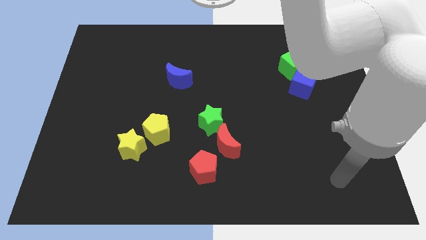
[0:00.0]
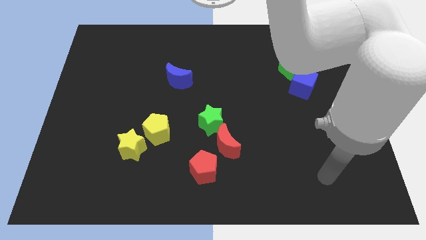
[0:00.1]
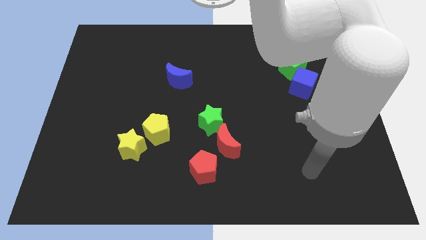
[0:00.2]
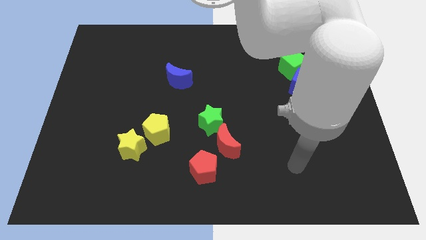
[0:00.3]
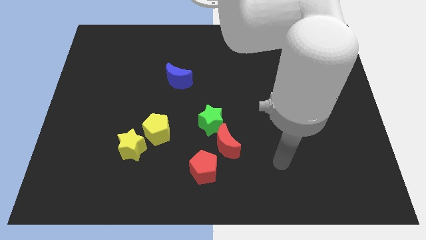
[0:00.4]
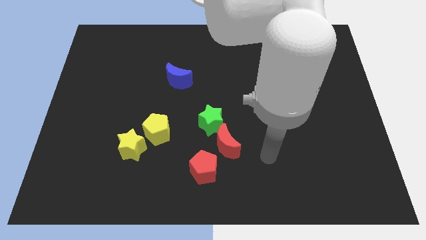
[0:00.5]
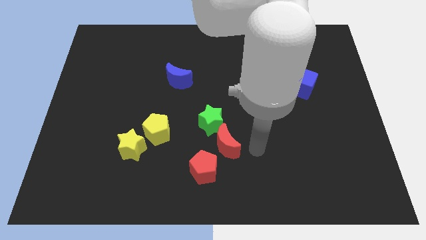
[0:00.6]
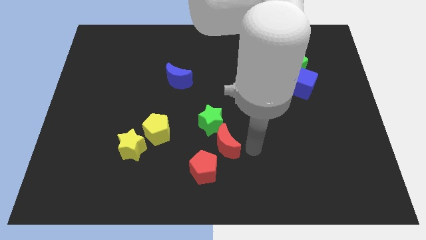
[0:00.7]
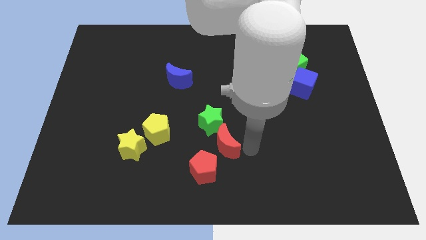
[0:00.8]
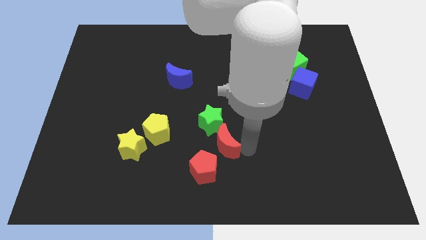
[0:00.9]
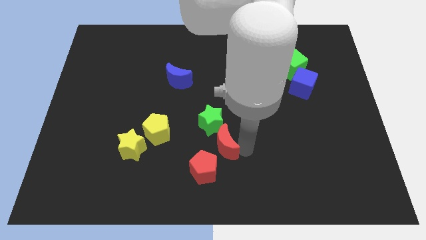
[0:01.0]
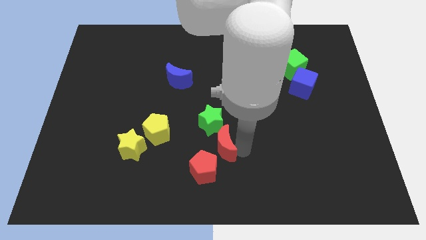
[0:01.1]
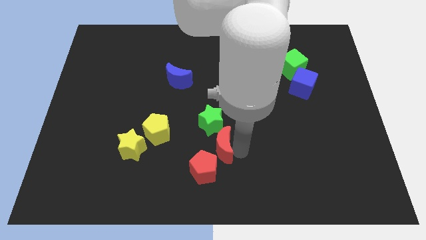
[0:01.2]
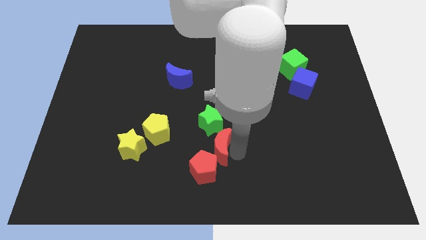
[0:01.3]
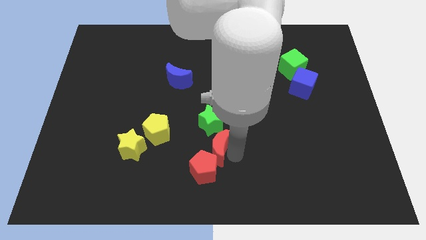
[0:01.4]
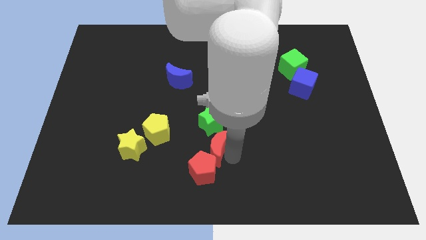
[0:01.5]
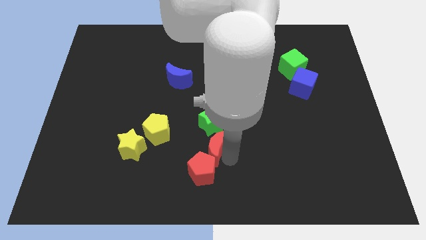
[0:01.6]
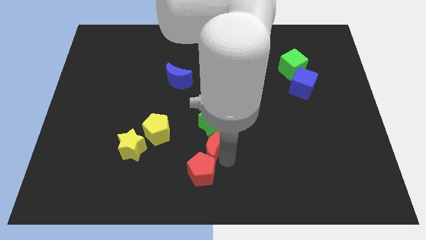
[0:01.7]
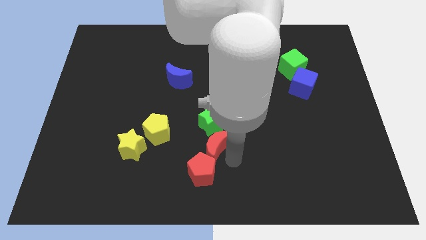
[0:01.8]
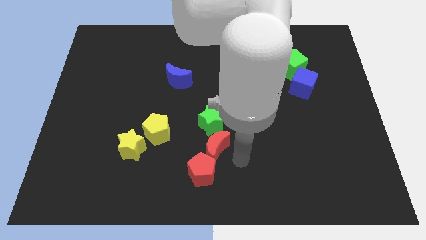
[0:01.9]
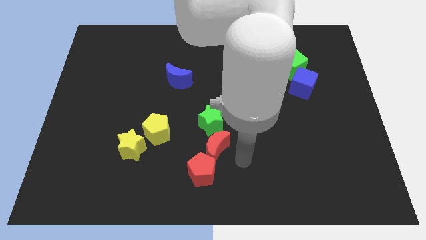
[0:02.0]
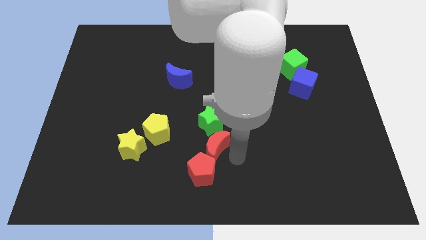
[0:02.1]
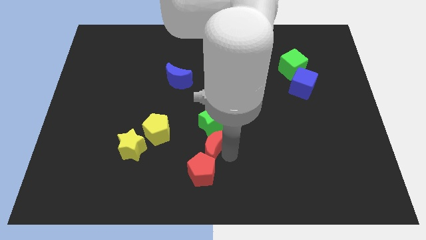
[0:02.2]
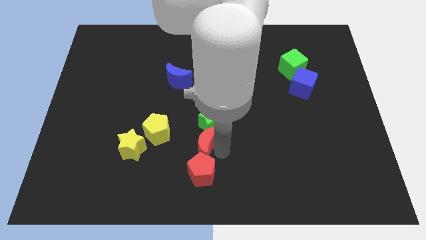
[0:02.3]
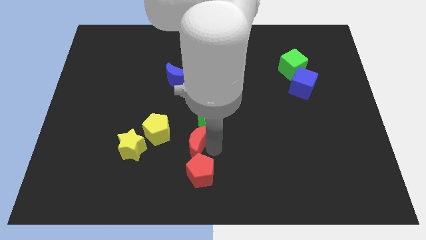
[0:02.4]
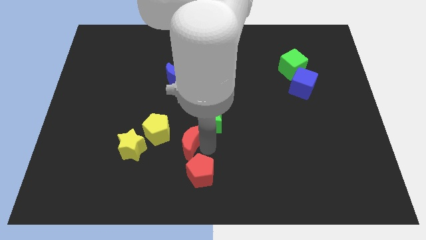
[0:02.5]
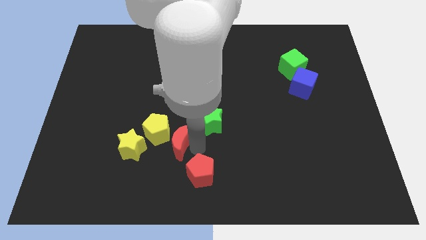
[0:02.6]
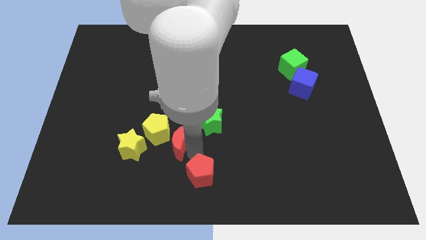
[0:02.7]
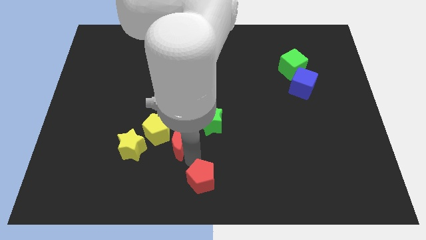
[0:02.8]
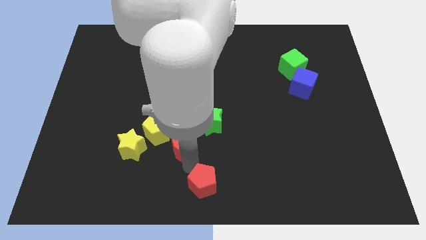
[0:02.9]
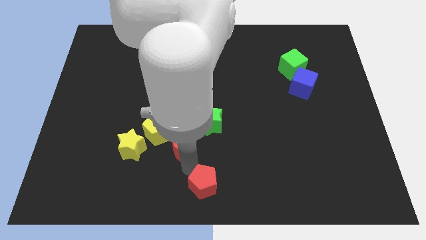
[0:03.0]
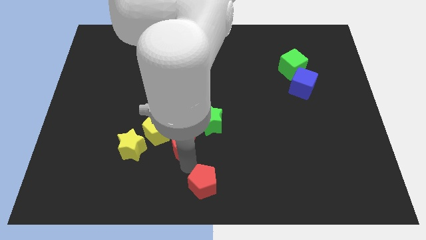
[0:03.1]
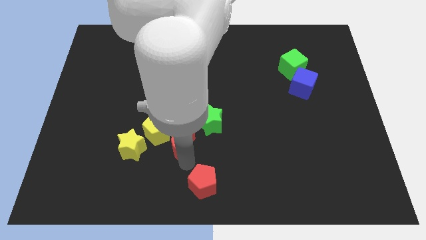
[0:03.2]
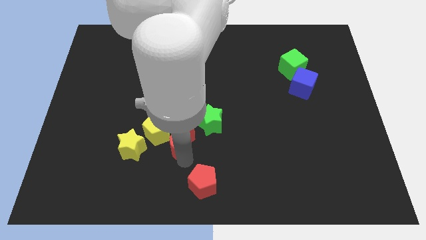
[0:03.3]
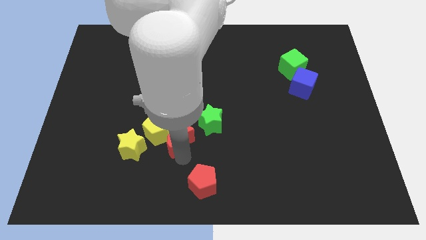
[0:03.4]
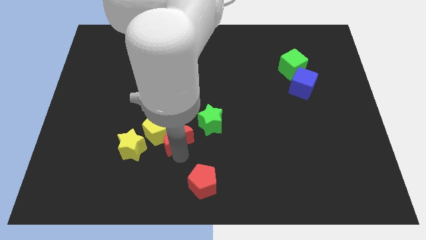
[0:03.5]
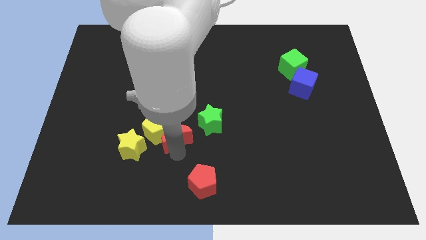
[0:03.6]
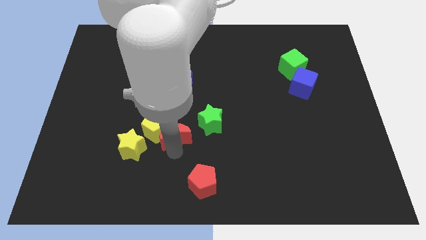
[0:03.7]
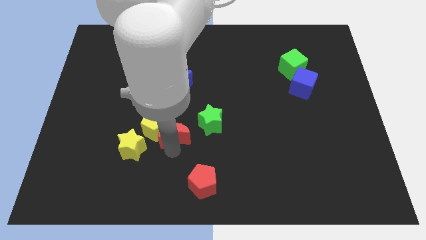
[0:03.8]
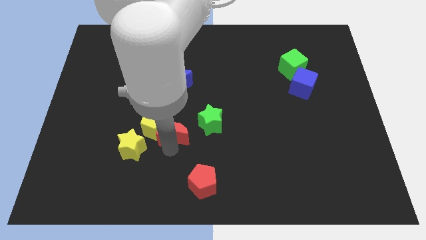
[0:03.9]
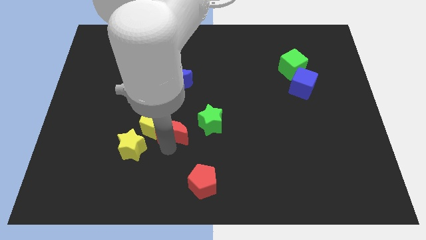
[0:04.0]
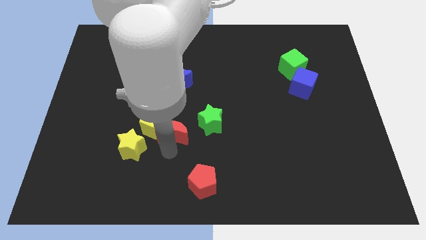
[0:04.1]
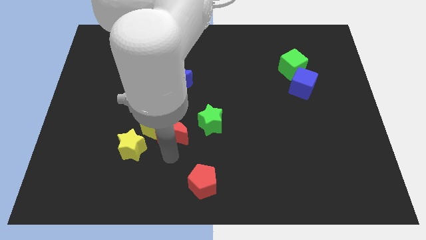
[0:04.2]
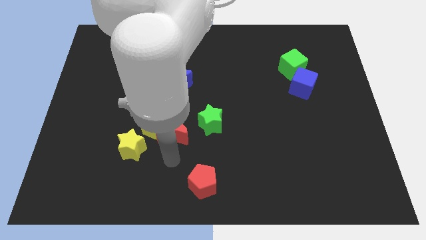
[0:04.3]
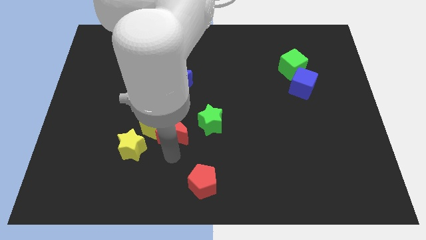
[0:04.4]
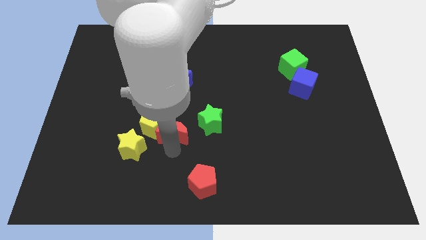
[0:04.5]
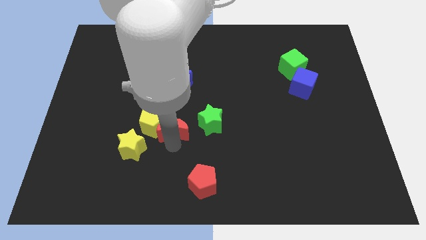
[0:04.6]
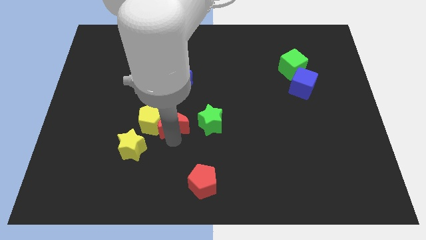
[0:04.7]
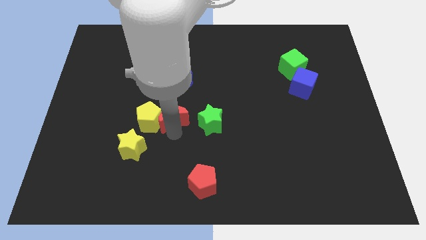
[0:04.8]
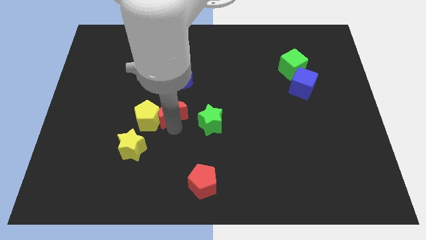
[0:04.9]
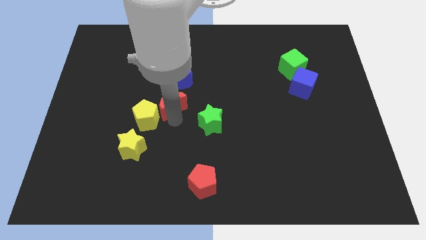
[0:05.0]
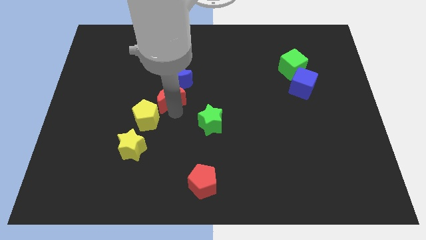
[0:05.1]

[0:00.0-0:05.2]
put the red moon to the top of the yellow pentagon

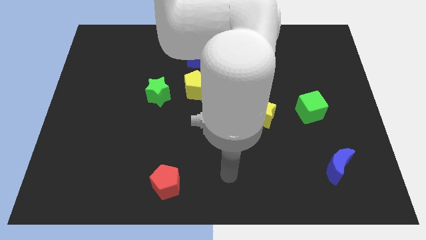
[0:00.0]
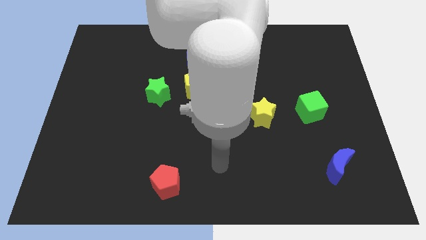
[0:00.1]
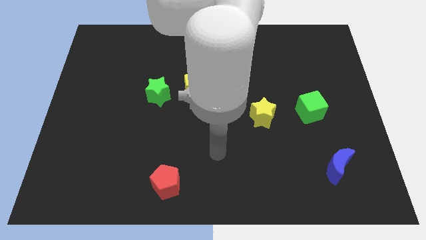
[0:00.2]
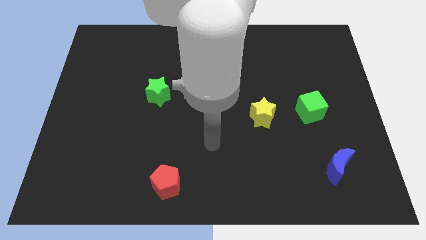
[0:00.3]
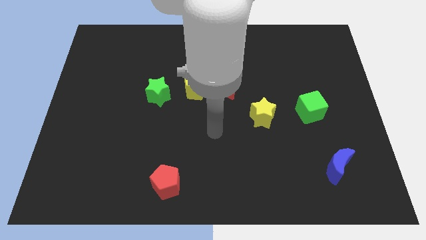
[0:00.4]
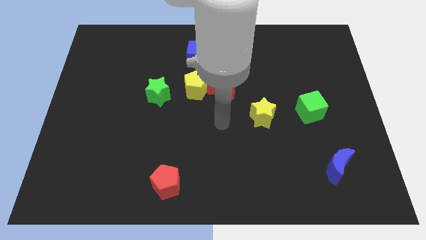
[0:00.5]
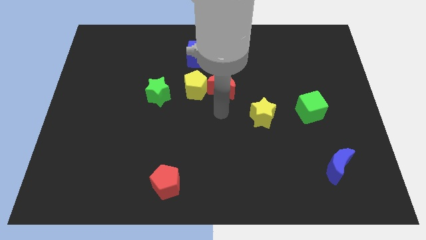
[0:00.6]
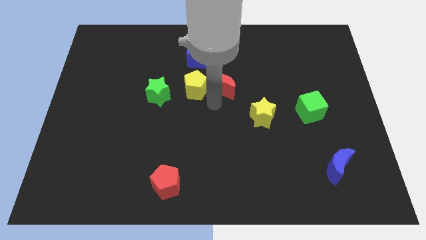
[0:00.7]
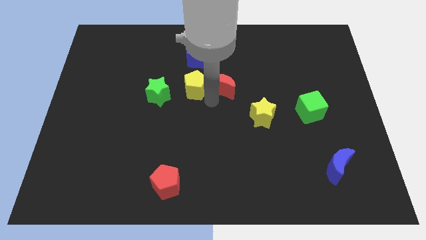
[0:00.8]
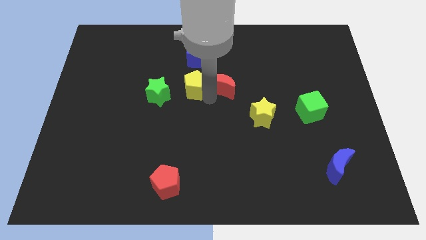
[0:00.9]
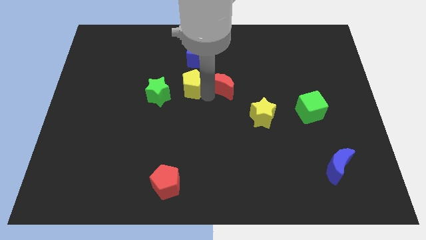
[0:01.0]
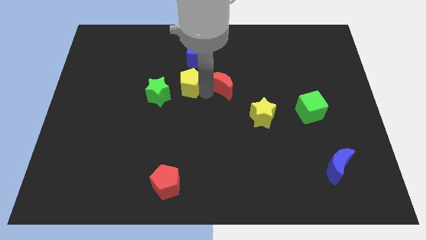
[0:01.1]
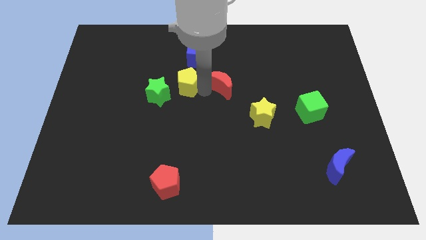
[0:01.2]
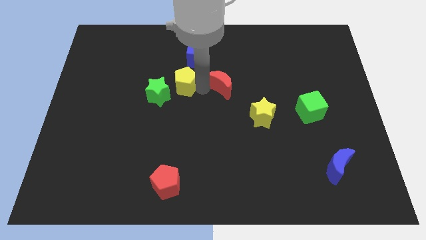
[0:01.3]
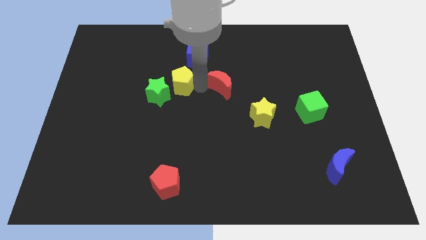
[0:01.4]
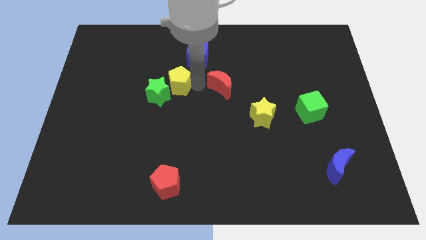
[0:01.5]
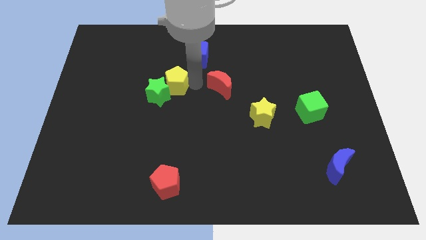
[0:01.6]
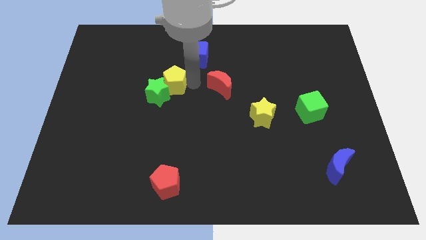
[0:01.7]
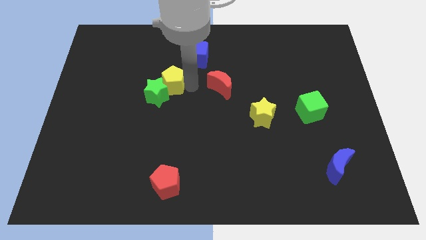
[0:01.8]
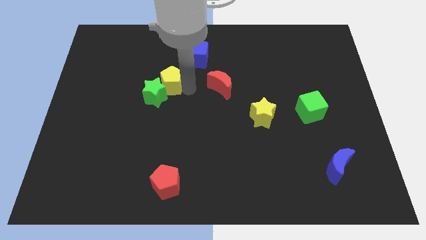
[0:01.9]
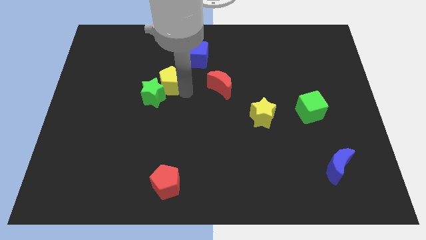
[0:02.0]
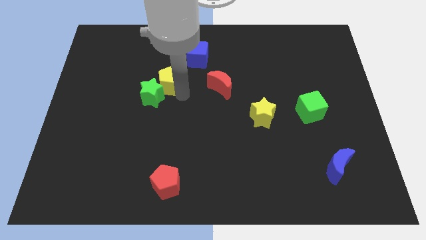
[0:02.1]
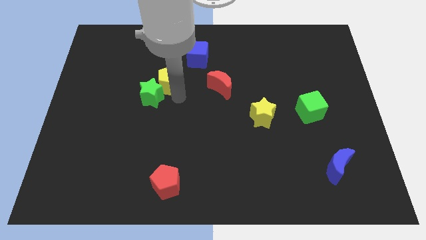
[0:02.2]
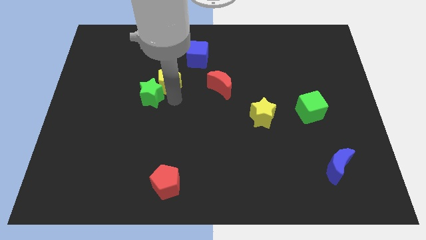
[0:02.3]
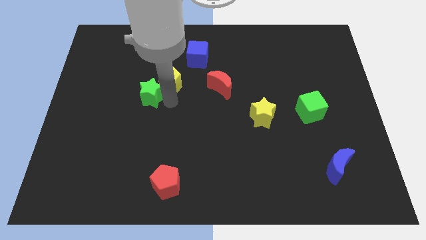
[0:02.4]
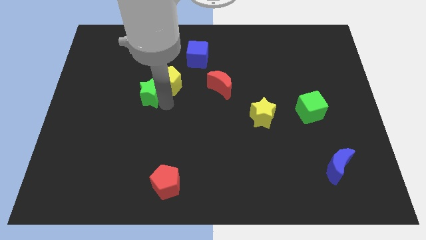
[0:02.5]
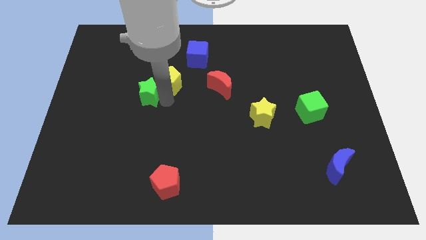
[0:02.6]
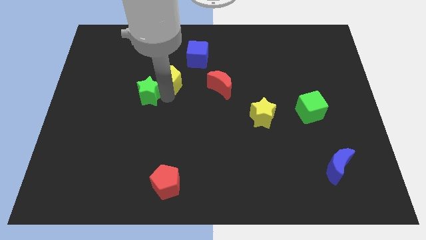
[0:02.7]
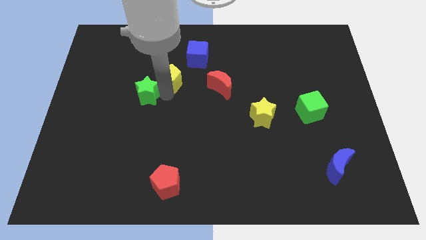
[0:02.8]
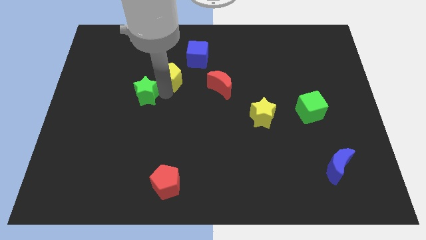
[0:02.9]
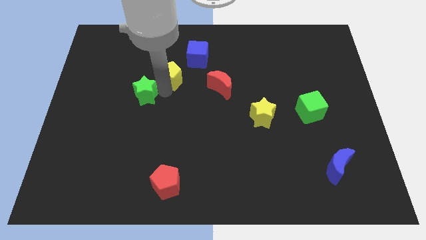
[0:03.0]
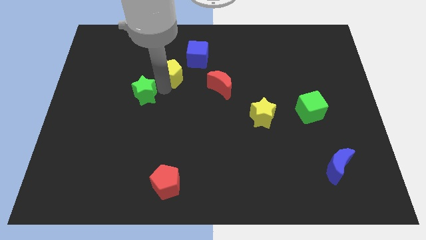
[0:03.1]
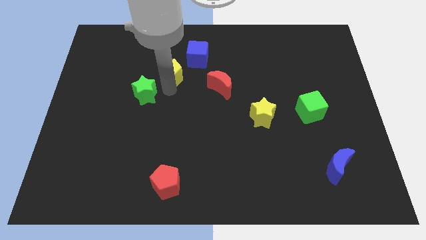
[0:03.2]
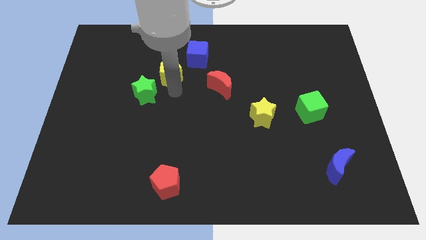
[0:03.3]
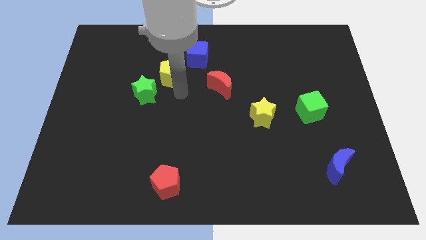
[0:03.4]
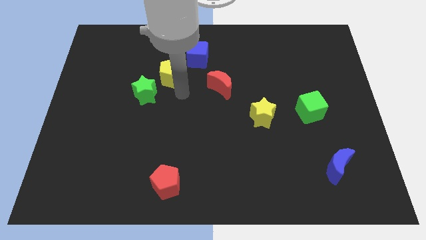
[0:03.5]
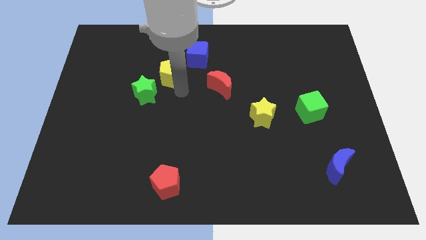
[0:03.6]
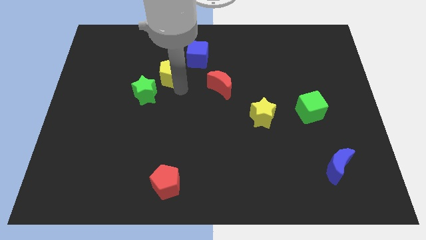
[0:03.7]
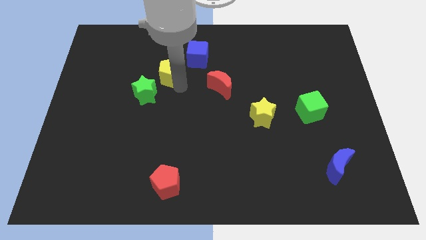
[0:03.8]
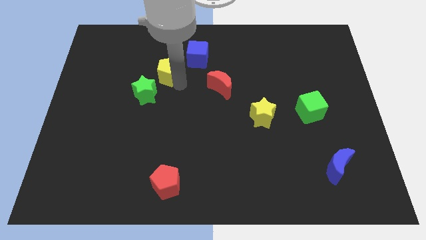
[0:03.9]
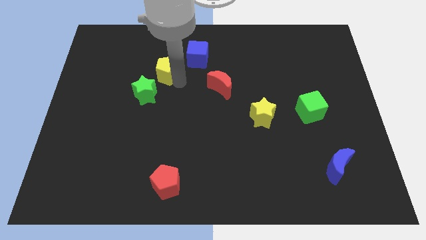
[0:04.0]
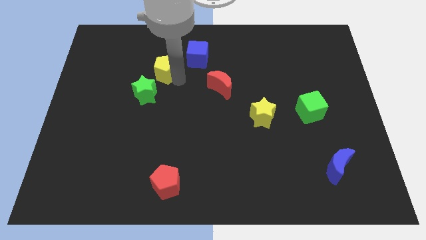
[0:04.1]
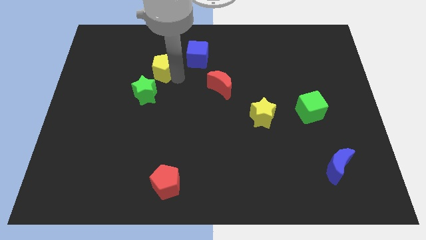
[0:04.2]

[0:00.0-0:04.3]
put the yellow pentagon just left of the blue cube
